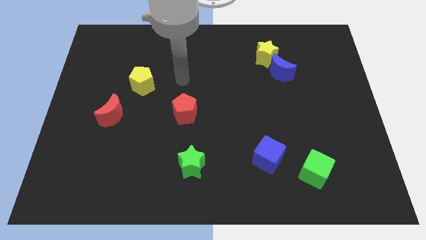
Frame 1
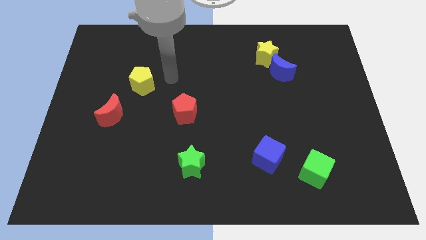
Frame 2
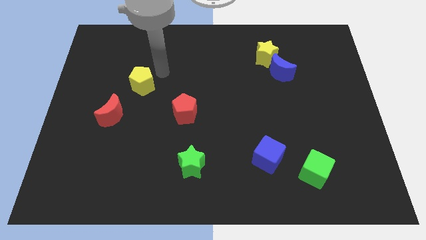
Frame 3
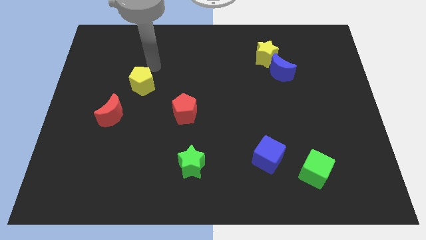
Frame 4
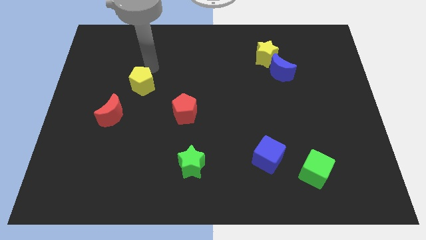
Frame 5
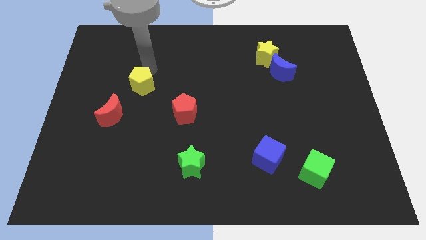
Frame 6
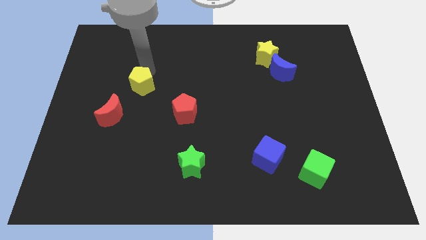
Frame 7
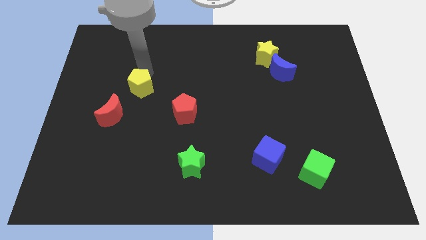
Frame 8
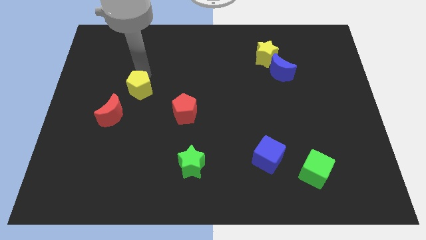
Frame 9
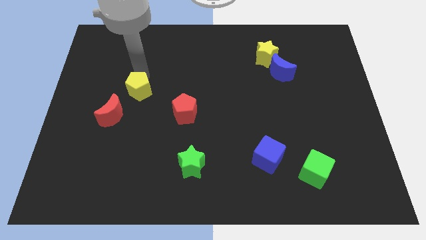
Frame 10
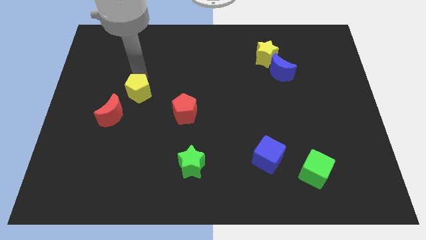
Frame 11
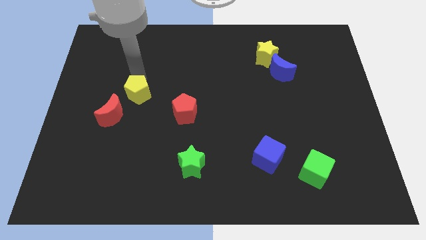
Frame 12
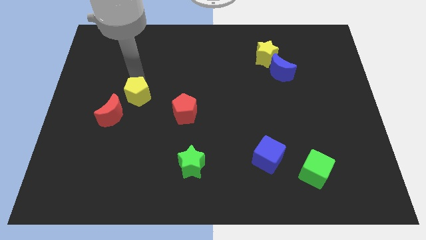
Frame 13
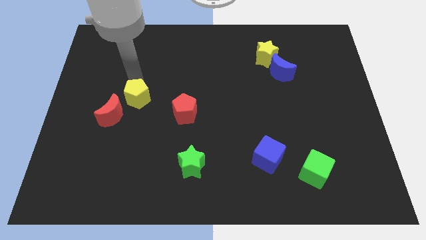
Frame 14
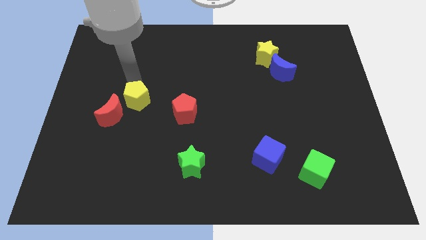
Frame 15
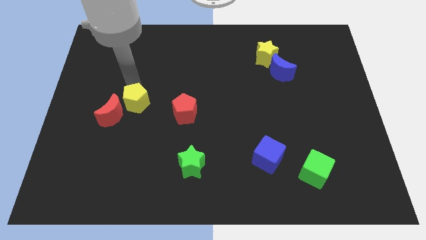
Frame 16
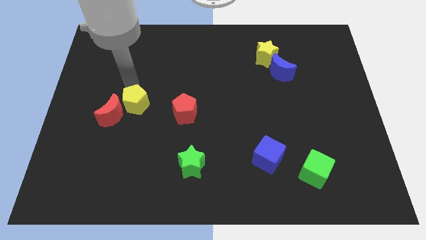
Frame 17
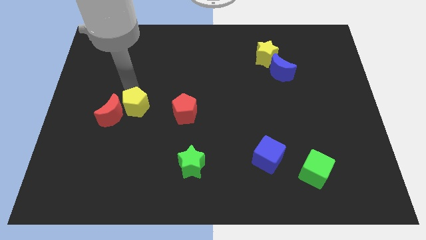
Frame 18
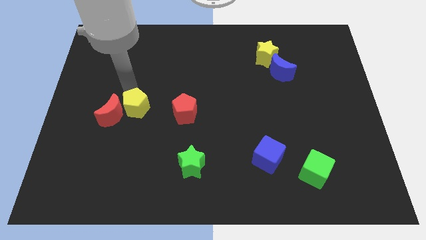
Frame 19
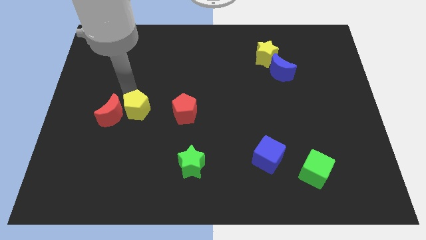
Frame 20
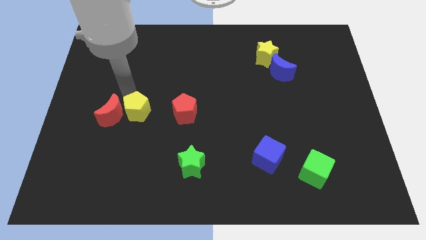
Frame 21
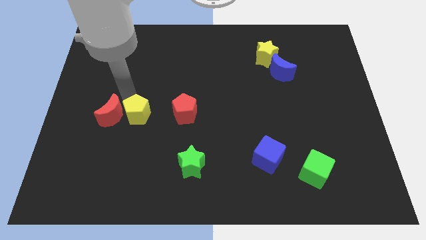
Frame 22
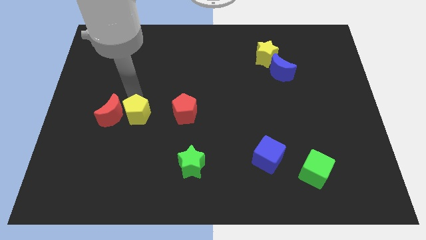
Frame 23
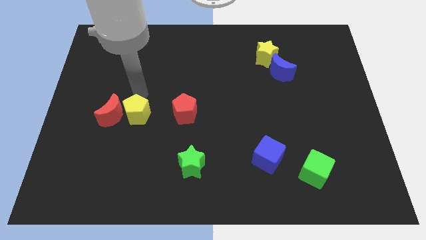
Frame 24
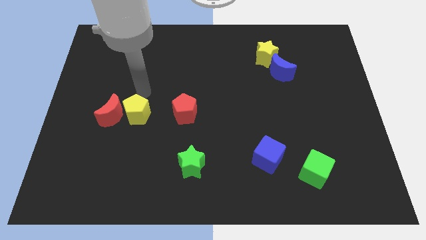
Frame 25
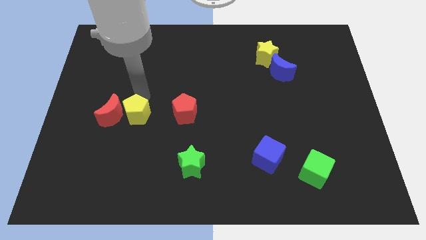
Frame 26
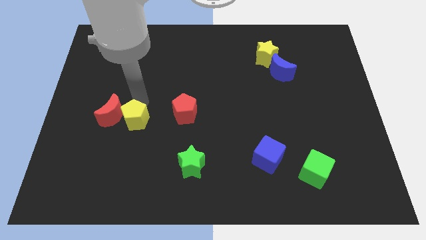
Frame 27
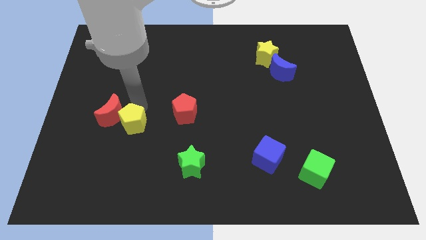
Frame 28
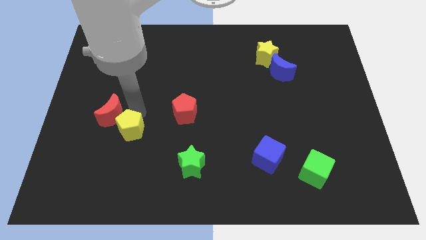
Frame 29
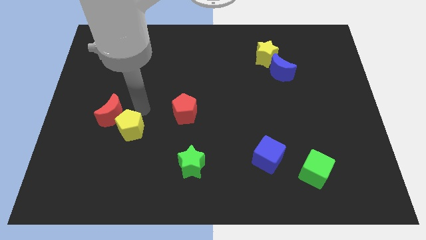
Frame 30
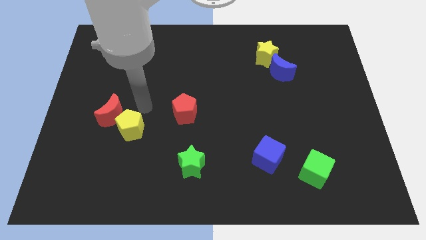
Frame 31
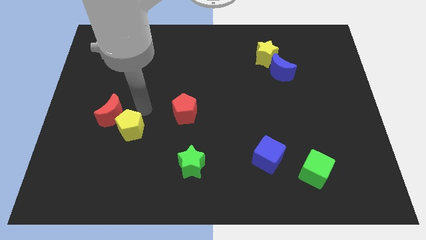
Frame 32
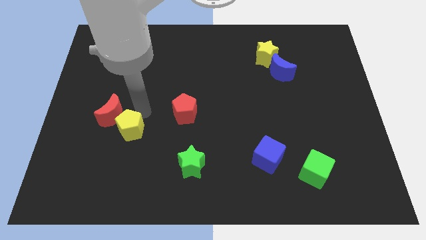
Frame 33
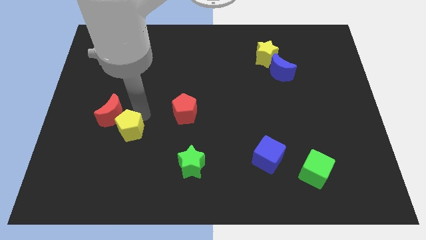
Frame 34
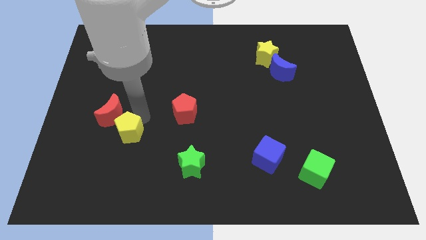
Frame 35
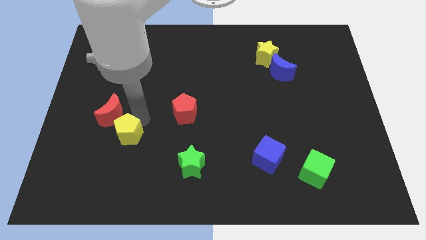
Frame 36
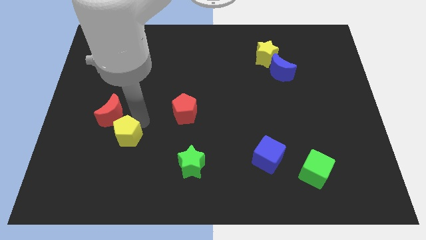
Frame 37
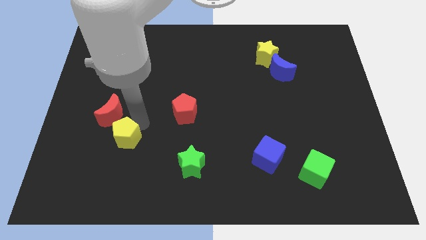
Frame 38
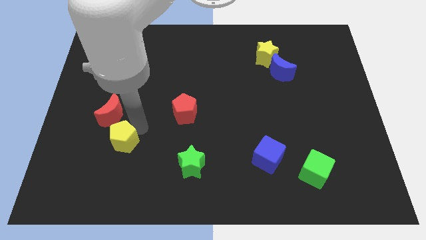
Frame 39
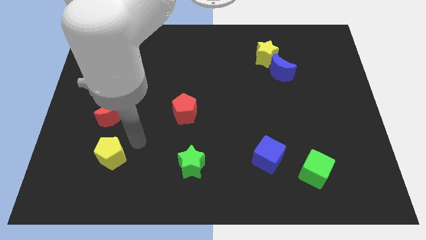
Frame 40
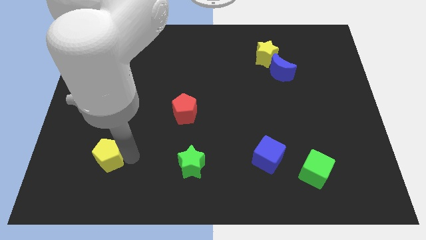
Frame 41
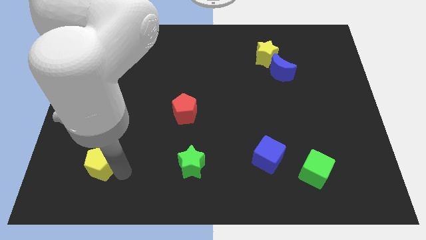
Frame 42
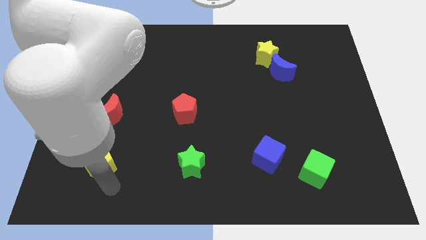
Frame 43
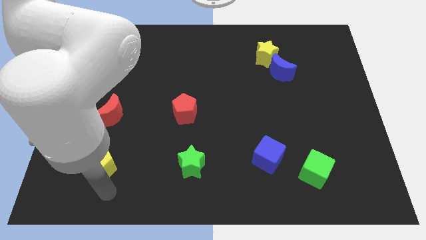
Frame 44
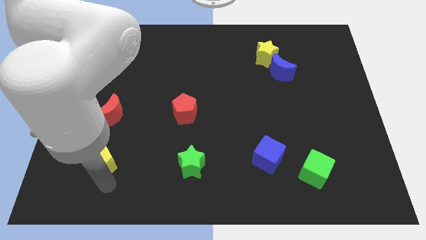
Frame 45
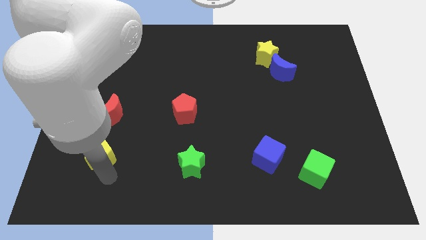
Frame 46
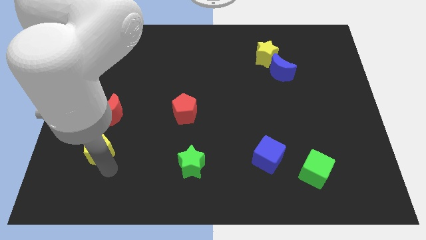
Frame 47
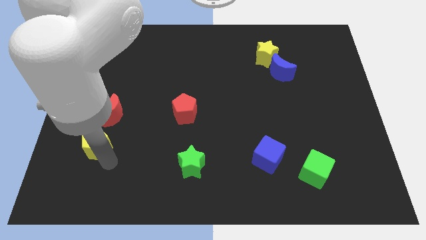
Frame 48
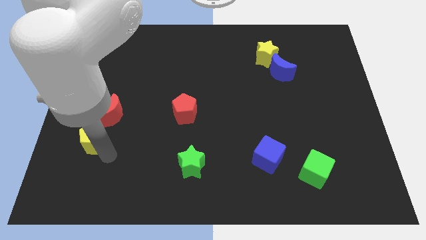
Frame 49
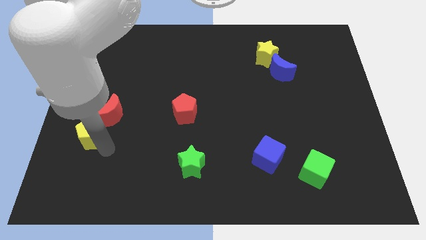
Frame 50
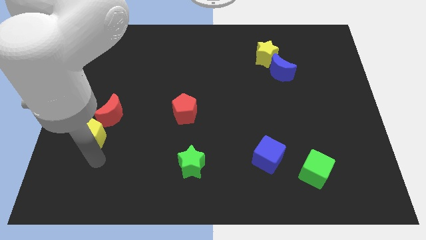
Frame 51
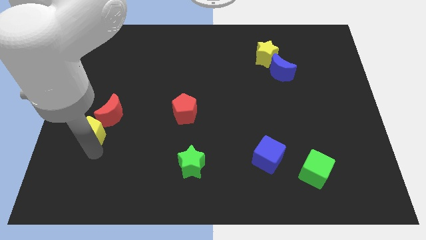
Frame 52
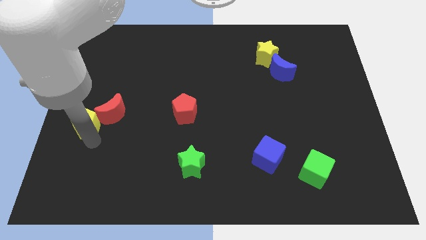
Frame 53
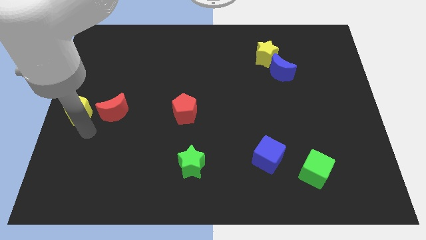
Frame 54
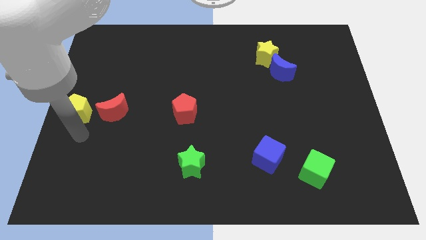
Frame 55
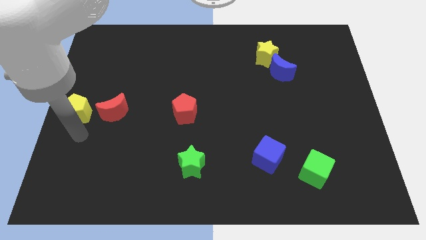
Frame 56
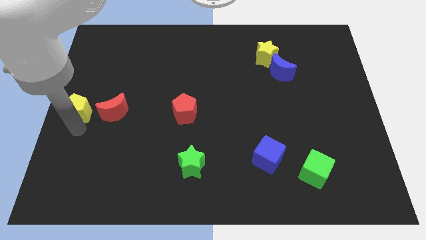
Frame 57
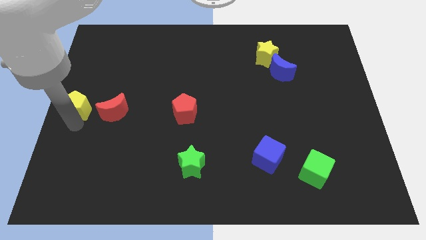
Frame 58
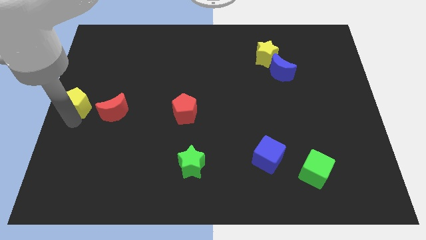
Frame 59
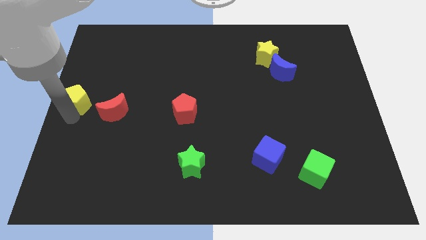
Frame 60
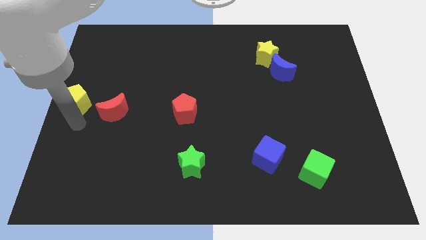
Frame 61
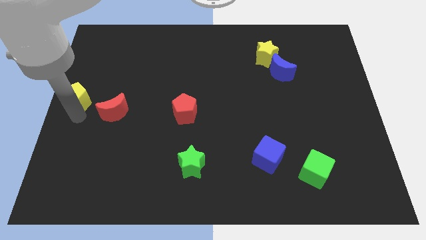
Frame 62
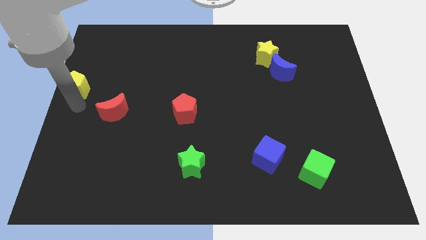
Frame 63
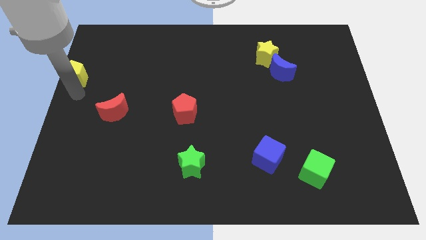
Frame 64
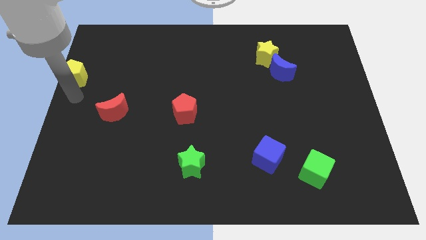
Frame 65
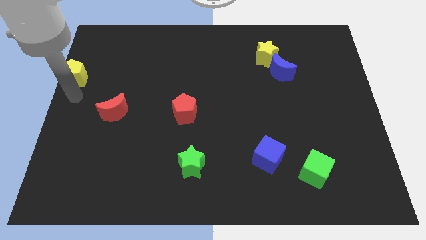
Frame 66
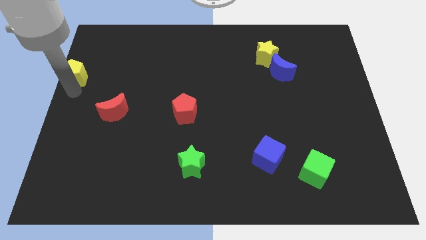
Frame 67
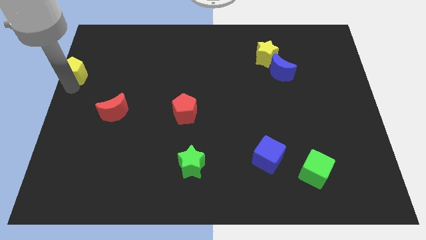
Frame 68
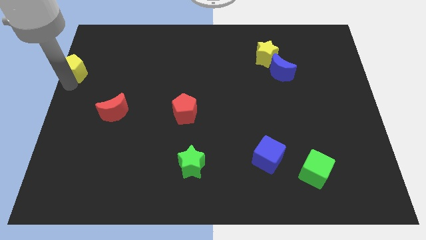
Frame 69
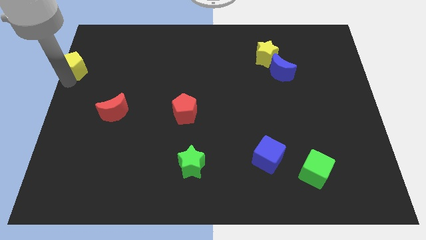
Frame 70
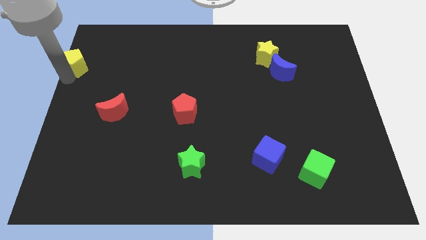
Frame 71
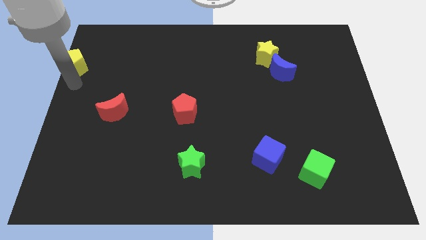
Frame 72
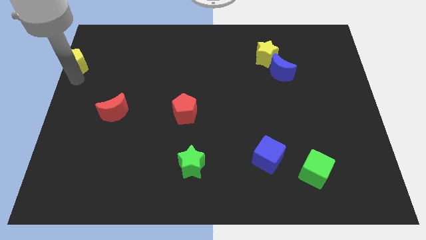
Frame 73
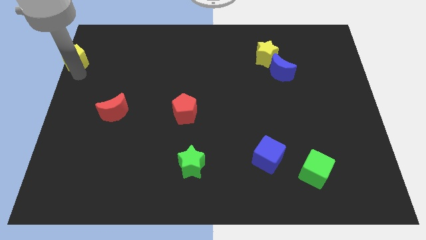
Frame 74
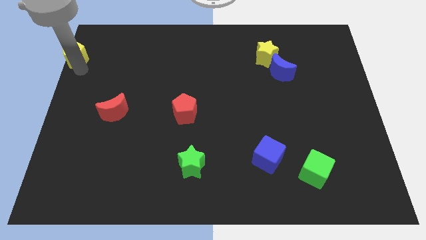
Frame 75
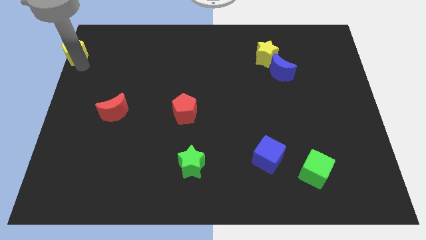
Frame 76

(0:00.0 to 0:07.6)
move the yellow pentagon to the top left
